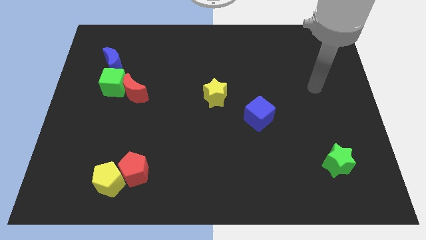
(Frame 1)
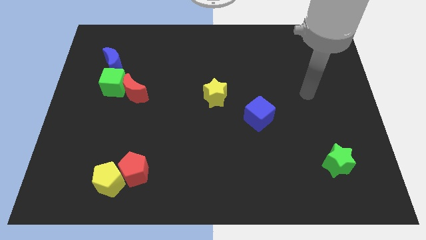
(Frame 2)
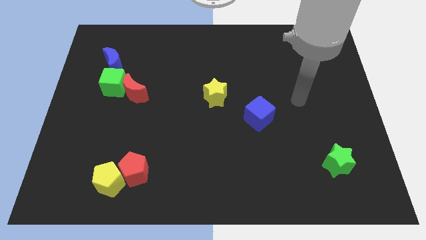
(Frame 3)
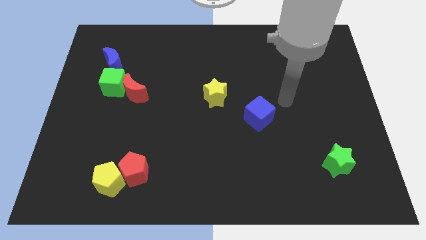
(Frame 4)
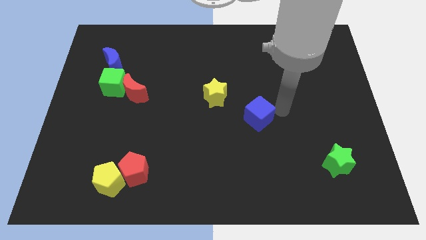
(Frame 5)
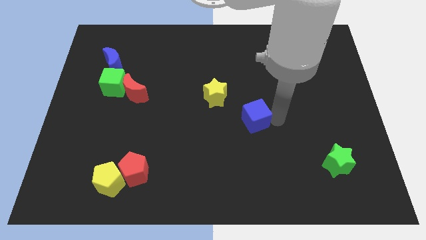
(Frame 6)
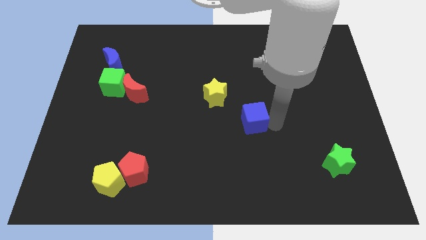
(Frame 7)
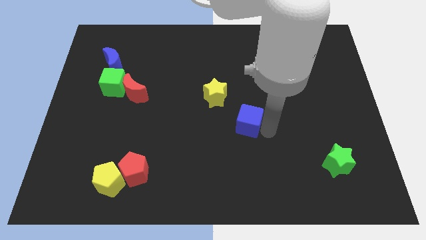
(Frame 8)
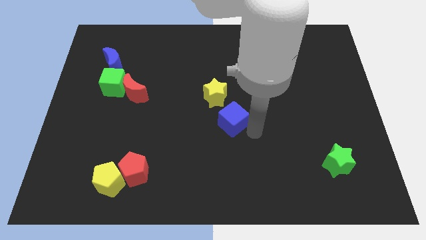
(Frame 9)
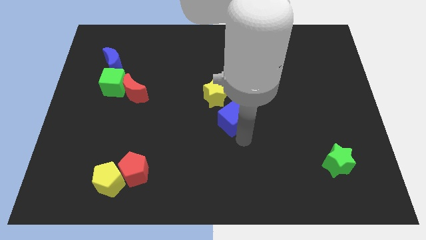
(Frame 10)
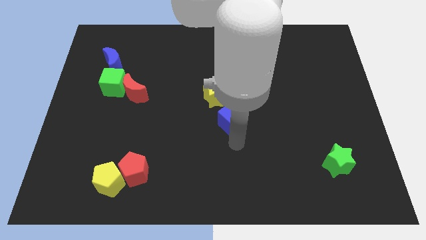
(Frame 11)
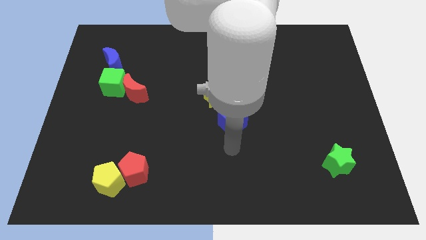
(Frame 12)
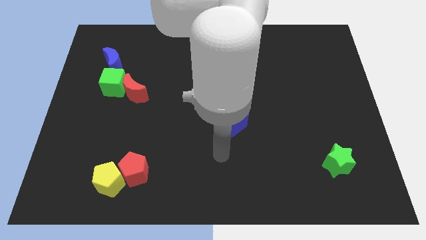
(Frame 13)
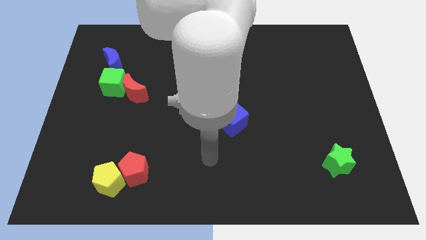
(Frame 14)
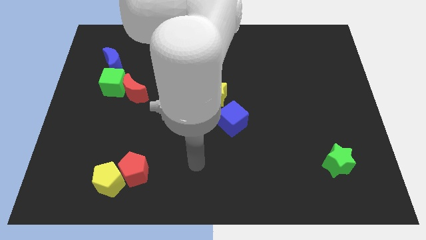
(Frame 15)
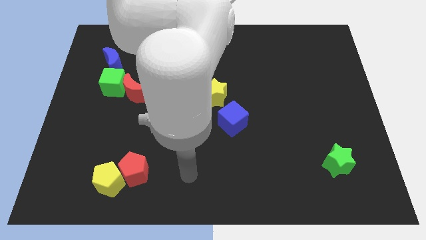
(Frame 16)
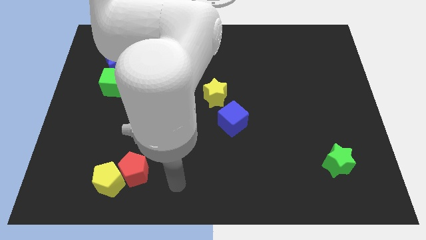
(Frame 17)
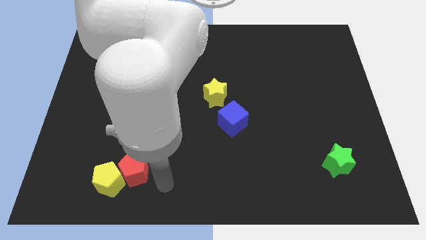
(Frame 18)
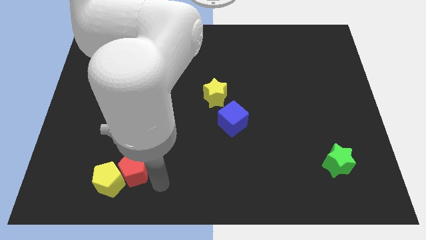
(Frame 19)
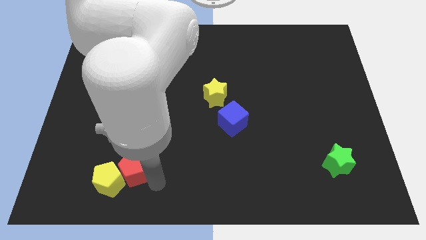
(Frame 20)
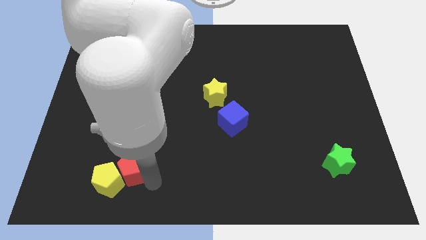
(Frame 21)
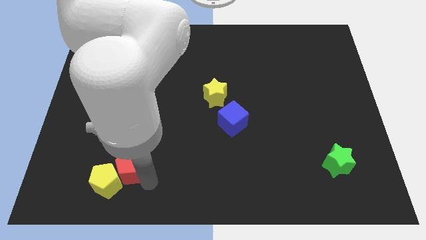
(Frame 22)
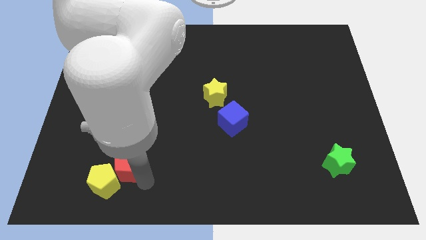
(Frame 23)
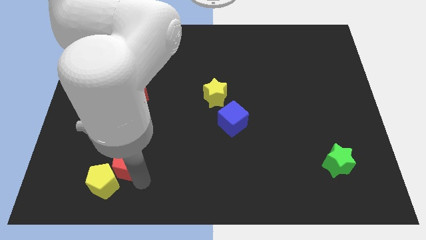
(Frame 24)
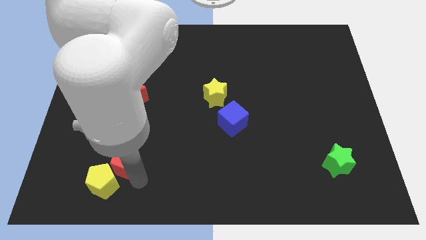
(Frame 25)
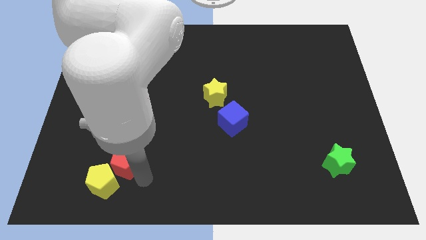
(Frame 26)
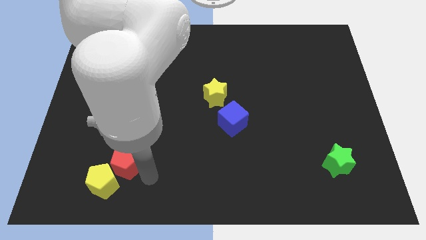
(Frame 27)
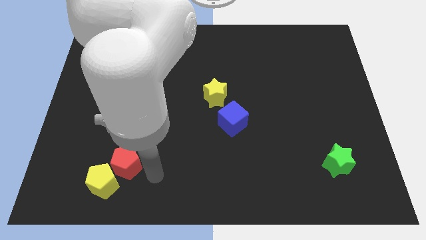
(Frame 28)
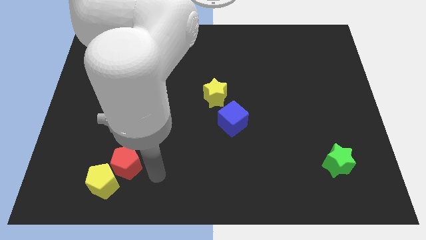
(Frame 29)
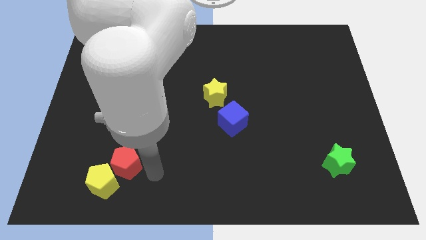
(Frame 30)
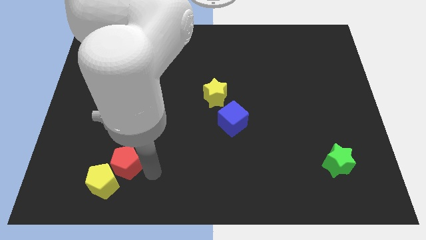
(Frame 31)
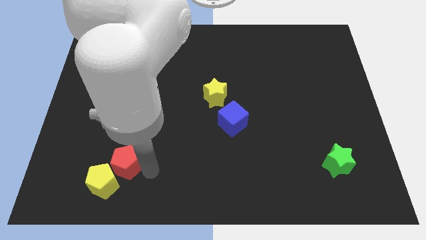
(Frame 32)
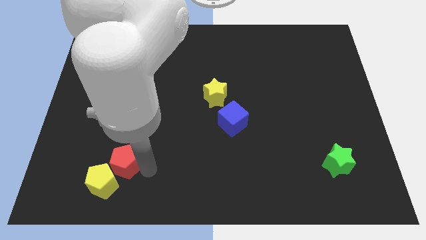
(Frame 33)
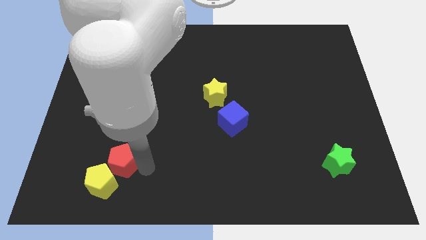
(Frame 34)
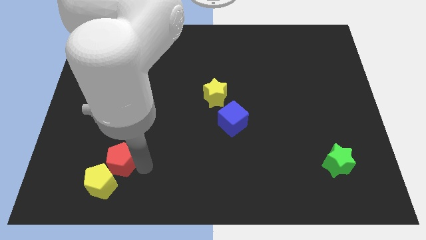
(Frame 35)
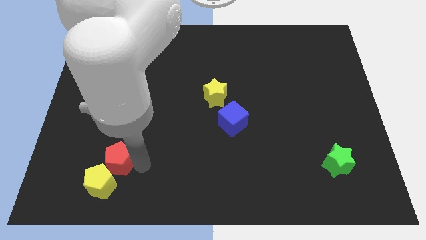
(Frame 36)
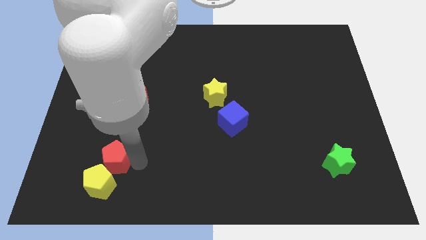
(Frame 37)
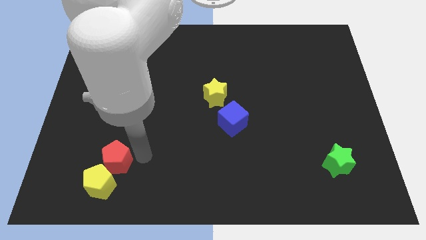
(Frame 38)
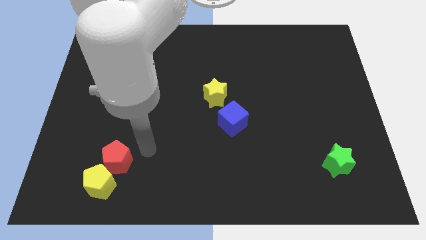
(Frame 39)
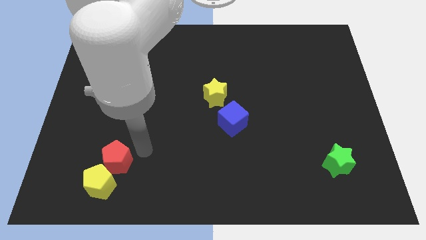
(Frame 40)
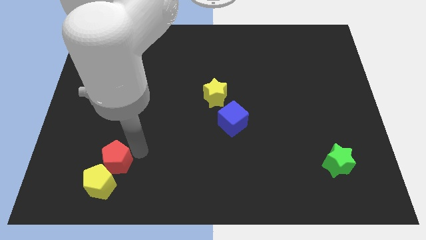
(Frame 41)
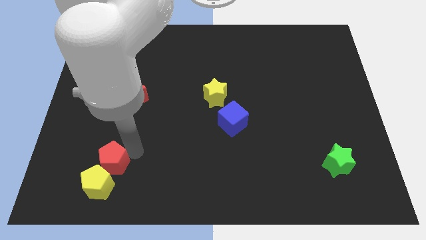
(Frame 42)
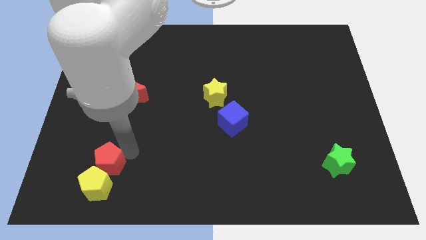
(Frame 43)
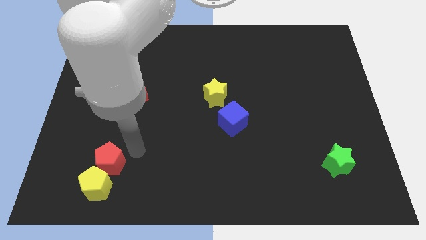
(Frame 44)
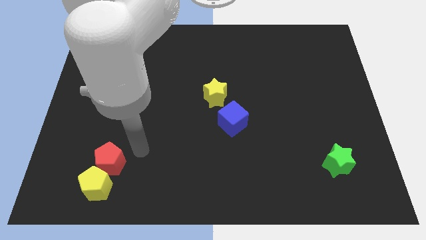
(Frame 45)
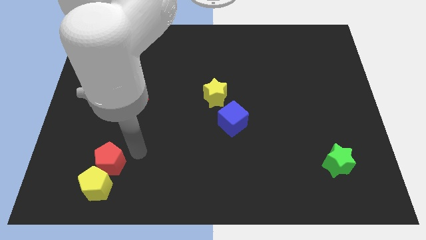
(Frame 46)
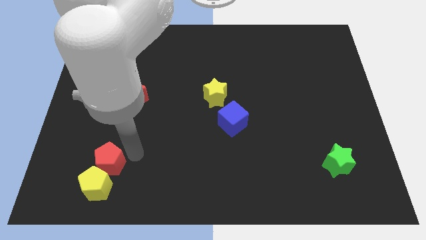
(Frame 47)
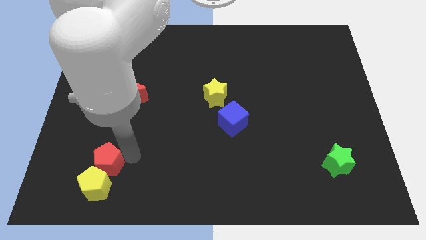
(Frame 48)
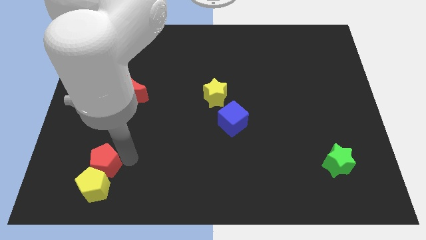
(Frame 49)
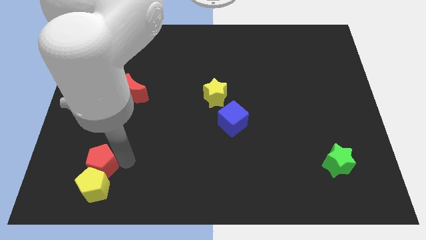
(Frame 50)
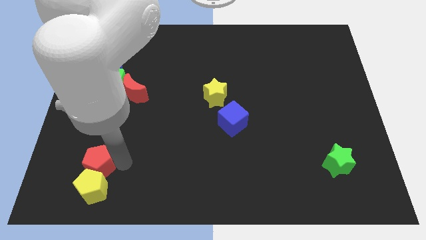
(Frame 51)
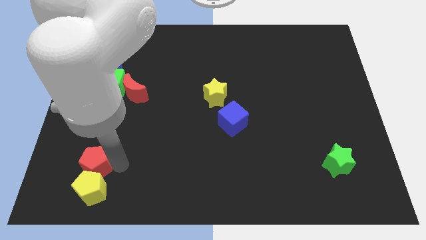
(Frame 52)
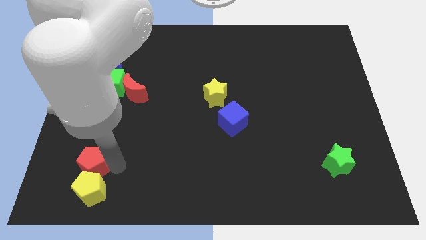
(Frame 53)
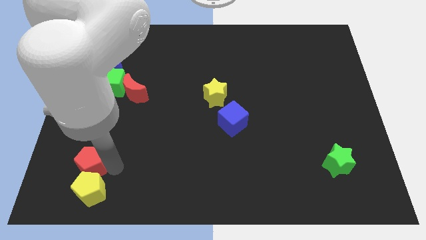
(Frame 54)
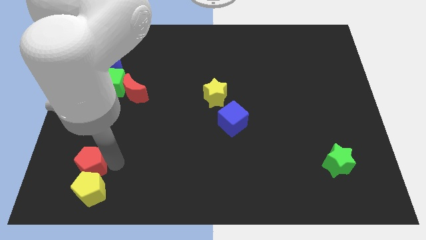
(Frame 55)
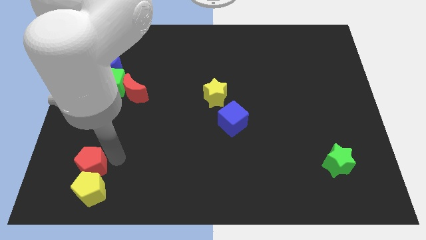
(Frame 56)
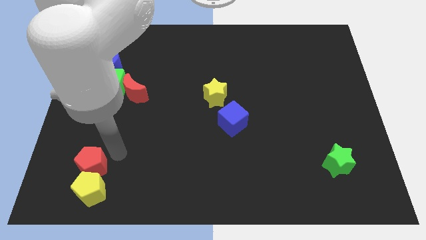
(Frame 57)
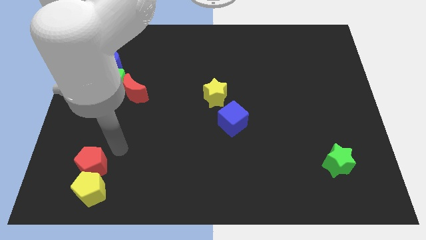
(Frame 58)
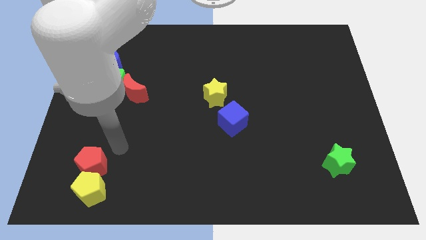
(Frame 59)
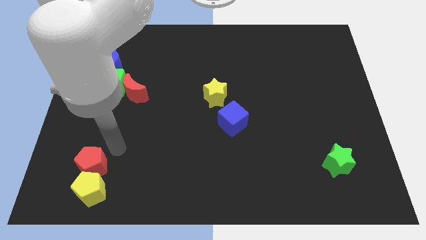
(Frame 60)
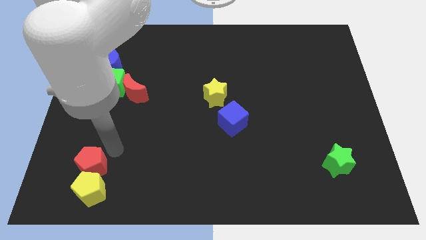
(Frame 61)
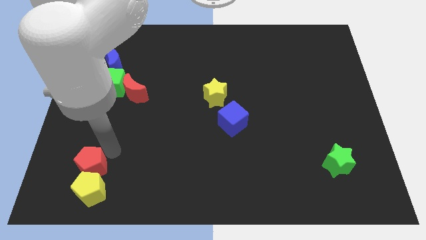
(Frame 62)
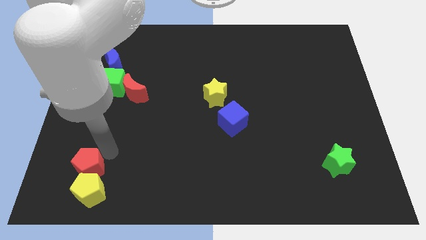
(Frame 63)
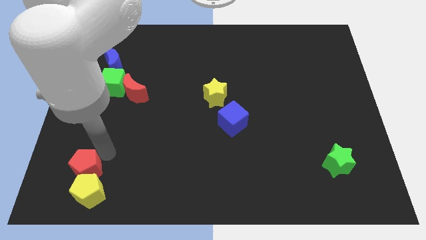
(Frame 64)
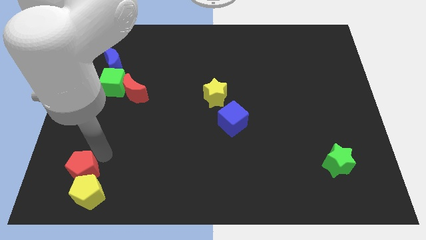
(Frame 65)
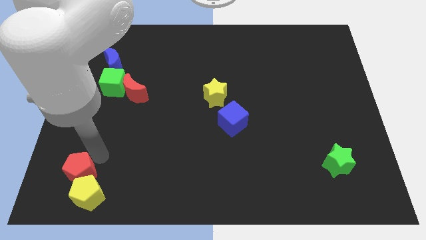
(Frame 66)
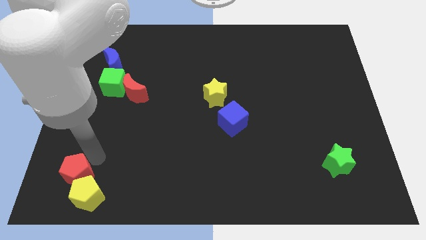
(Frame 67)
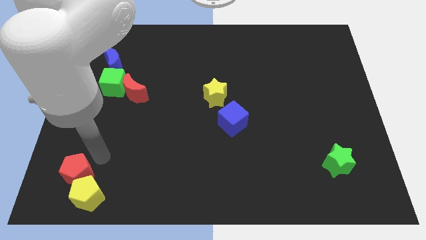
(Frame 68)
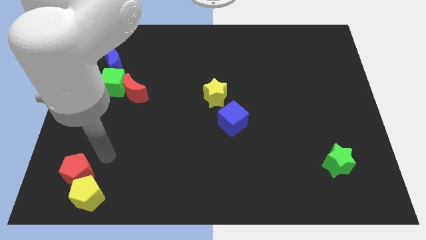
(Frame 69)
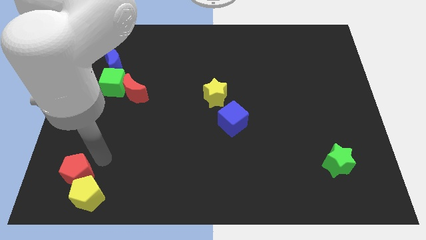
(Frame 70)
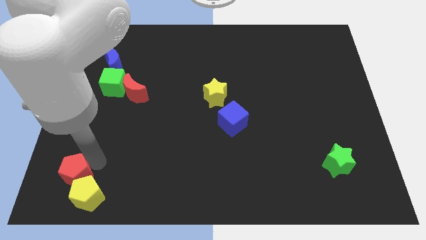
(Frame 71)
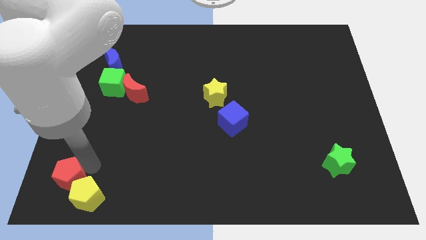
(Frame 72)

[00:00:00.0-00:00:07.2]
move the red pentagon to the bottom left
